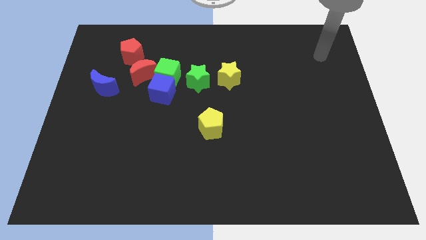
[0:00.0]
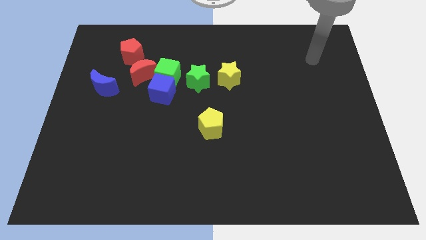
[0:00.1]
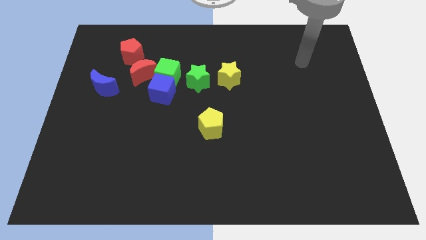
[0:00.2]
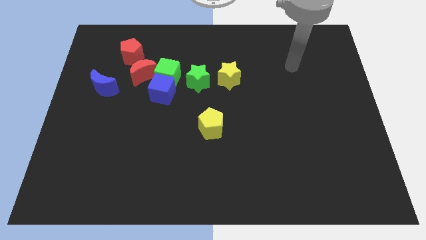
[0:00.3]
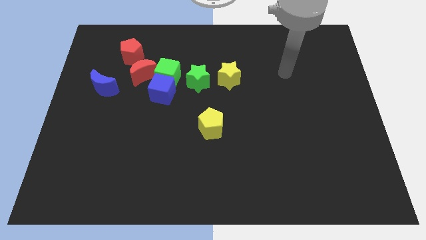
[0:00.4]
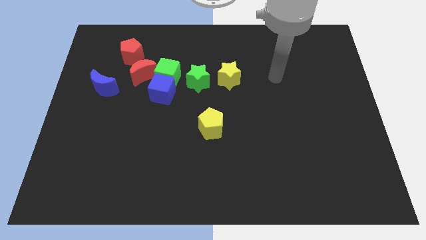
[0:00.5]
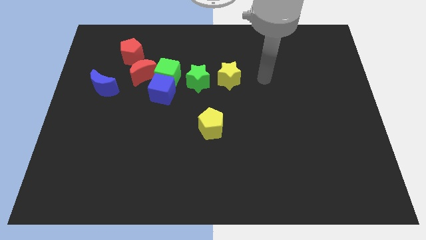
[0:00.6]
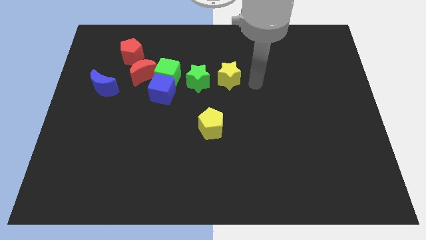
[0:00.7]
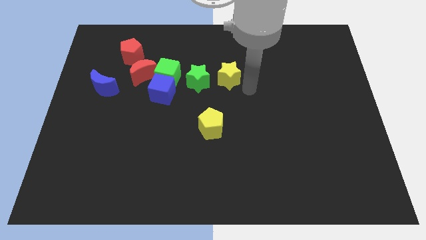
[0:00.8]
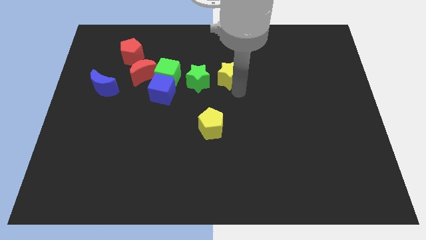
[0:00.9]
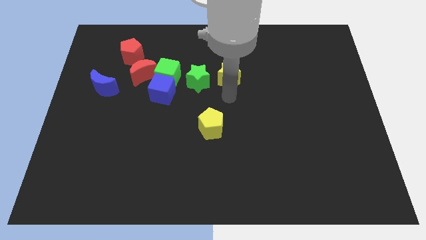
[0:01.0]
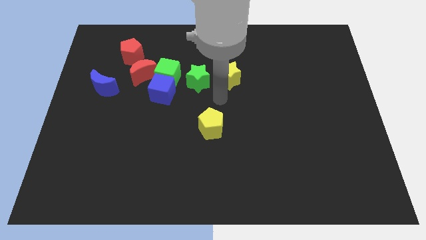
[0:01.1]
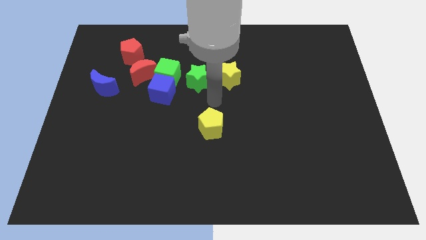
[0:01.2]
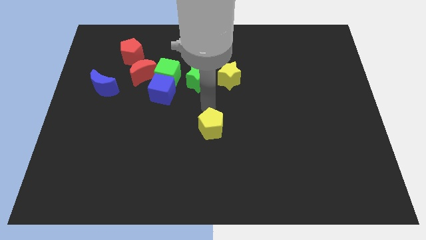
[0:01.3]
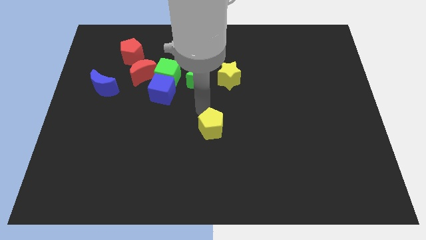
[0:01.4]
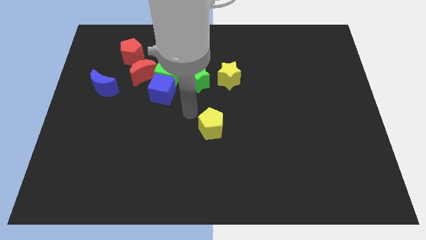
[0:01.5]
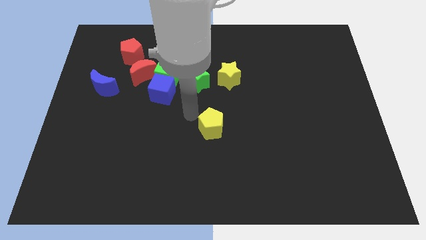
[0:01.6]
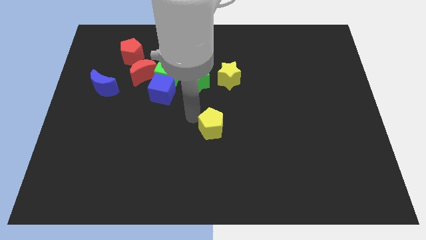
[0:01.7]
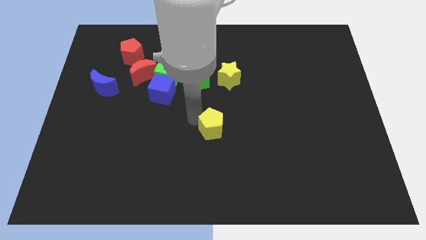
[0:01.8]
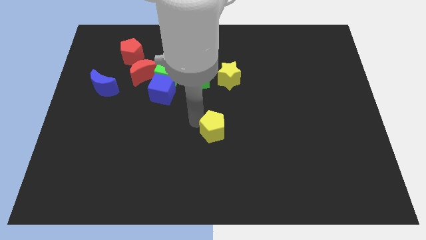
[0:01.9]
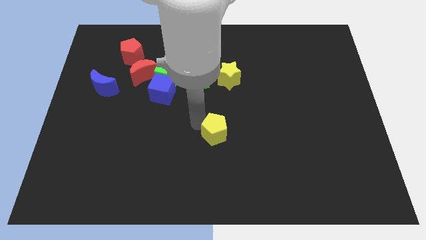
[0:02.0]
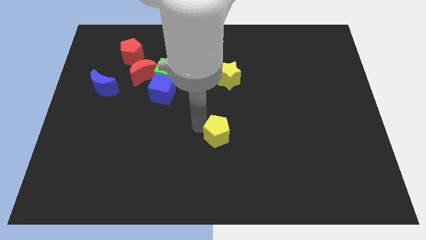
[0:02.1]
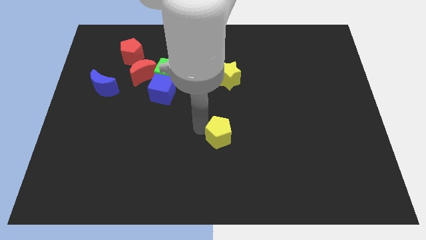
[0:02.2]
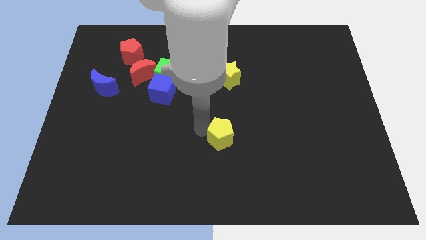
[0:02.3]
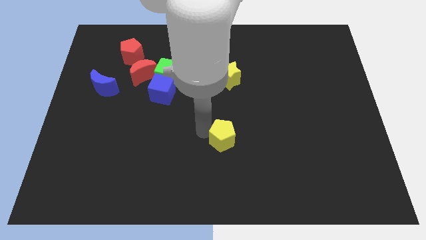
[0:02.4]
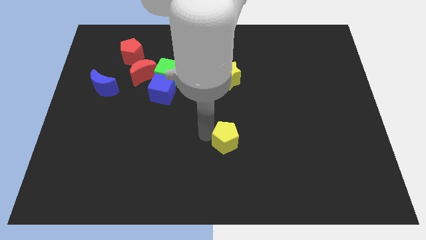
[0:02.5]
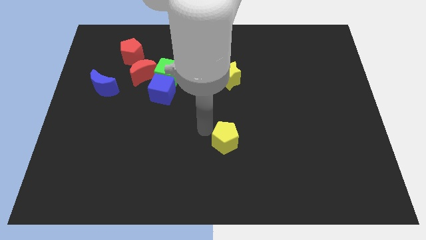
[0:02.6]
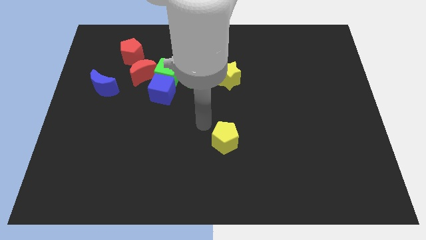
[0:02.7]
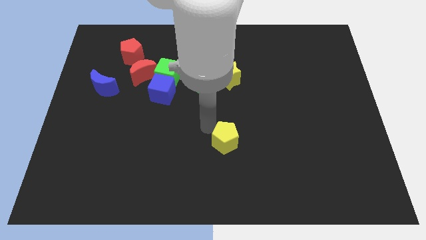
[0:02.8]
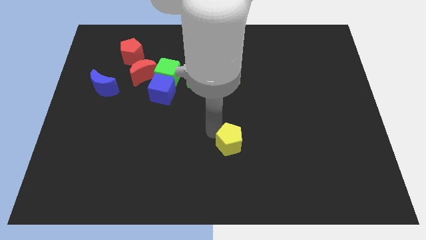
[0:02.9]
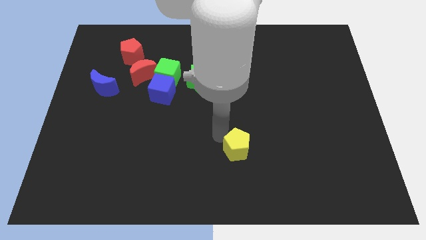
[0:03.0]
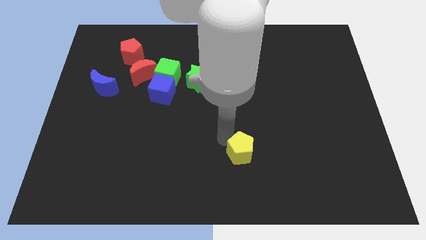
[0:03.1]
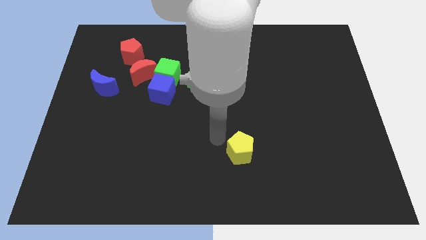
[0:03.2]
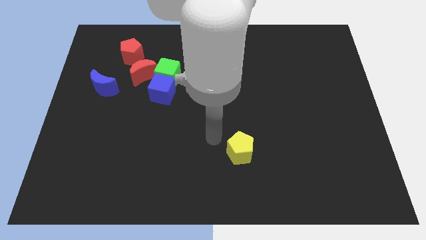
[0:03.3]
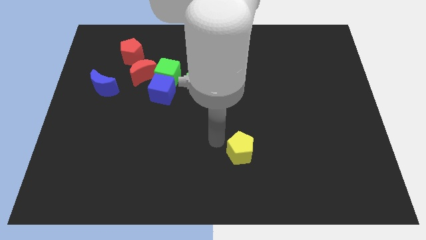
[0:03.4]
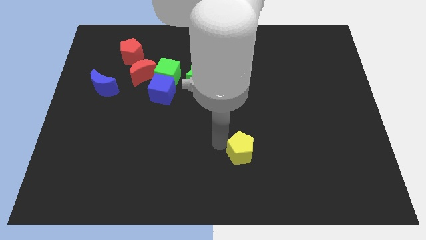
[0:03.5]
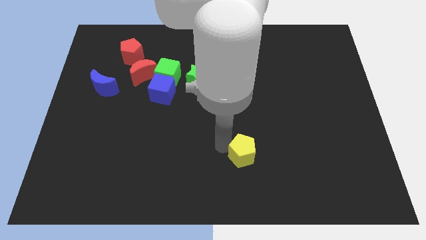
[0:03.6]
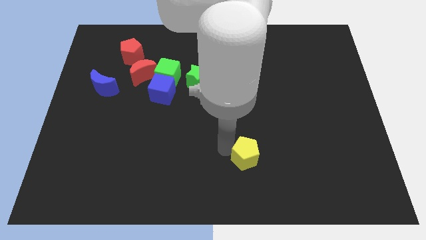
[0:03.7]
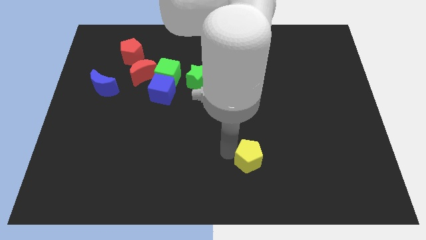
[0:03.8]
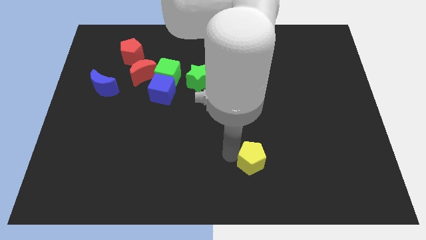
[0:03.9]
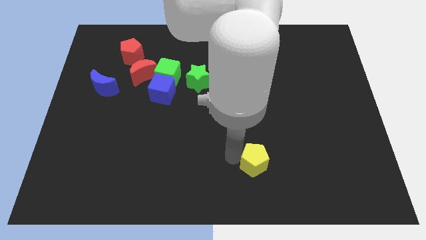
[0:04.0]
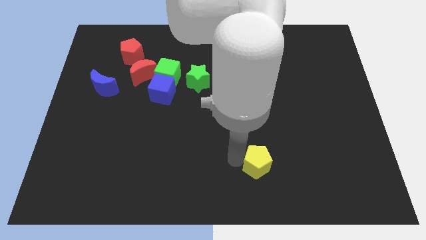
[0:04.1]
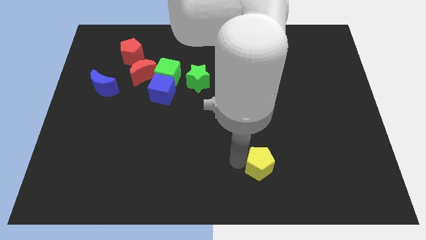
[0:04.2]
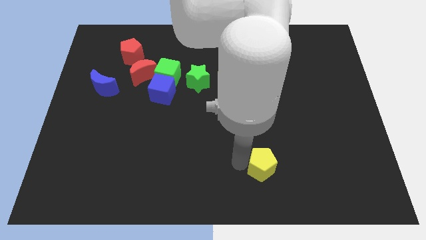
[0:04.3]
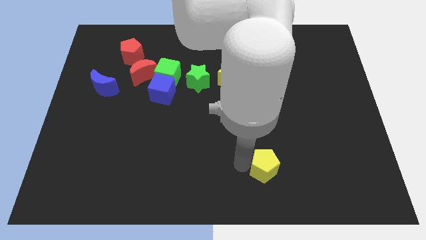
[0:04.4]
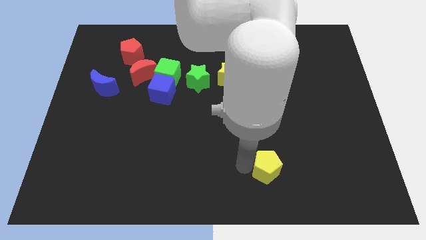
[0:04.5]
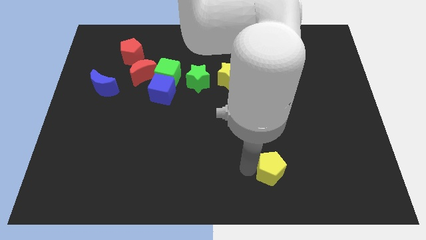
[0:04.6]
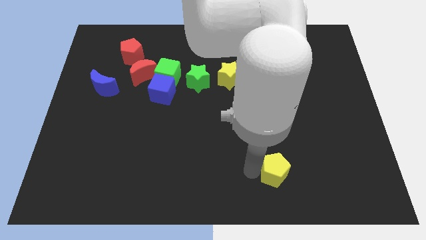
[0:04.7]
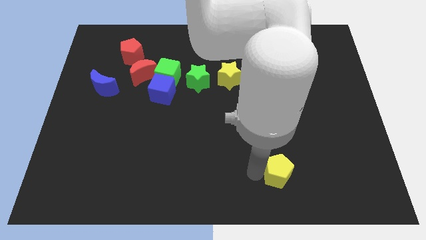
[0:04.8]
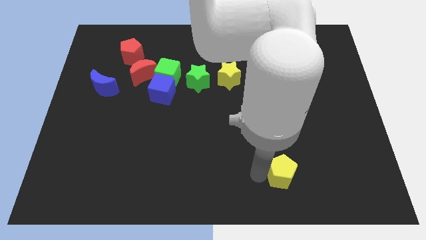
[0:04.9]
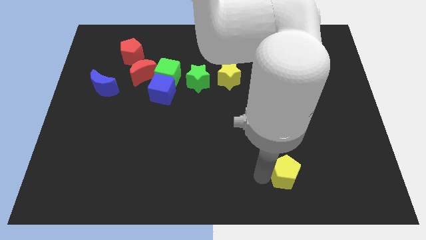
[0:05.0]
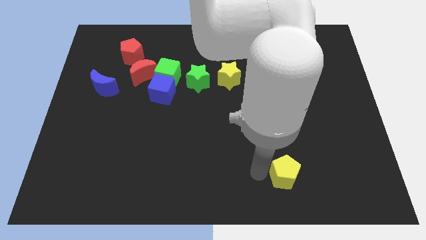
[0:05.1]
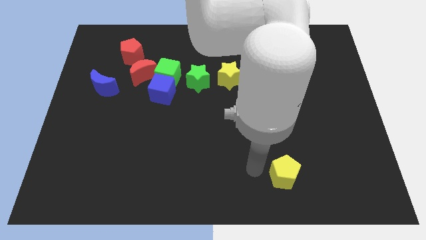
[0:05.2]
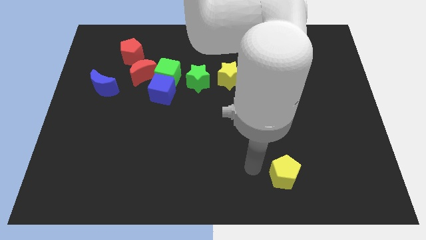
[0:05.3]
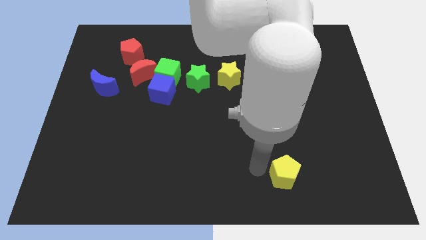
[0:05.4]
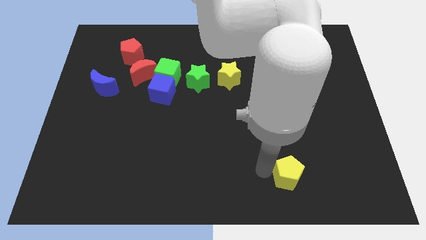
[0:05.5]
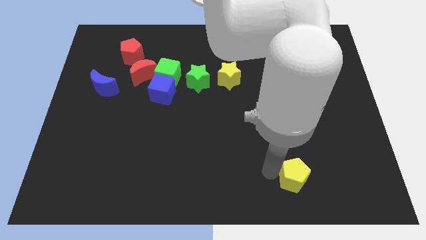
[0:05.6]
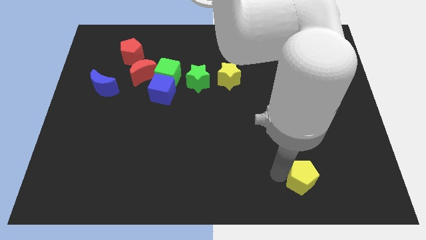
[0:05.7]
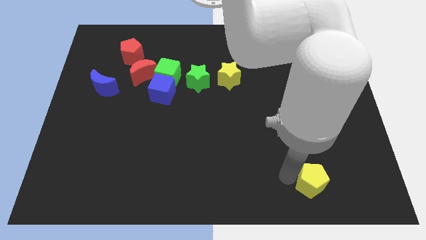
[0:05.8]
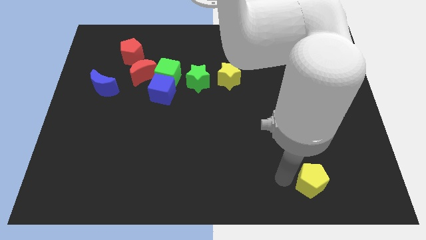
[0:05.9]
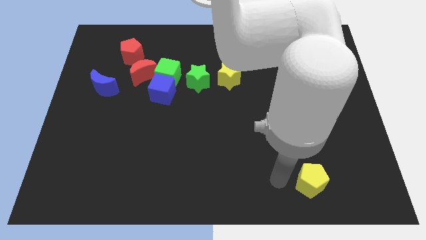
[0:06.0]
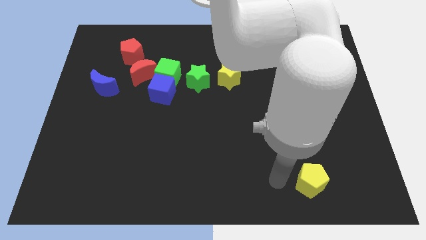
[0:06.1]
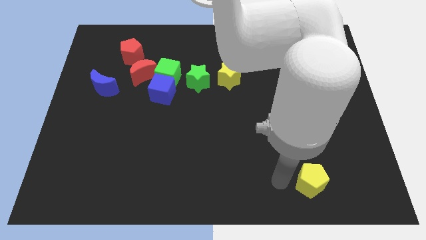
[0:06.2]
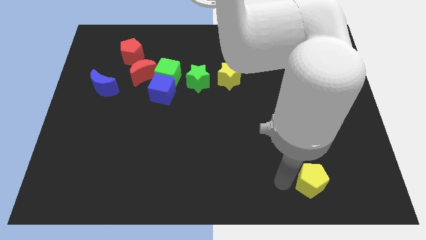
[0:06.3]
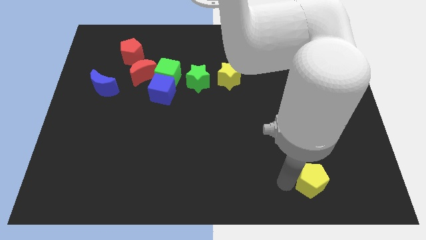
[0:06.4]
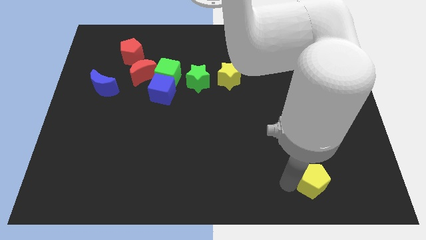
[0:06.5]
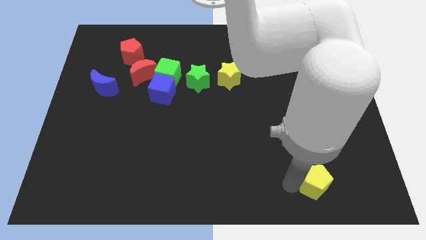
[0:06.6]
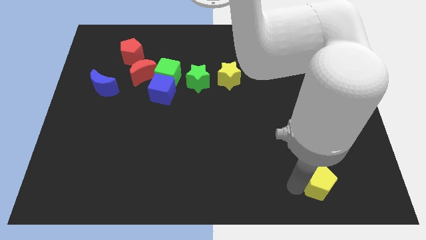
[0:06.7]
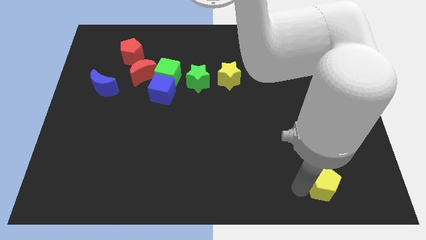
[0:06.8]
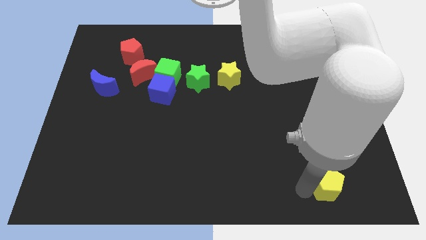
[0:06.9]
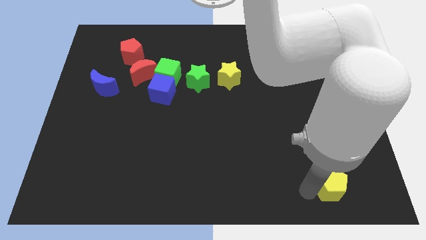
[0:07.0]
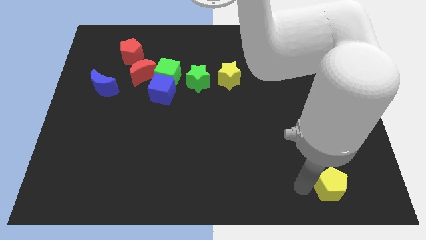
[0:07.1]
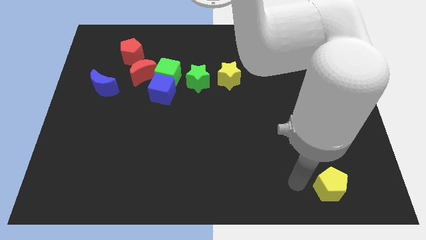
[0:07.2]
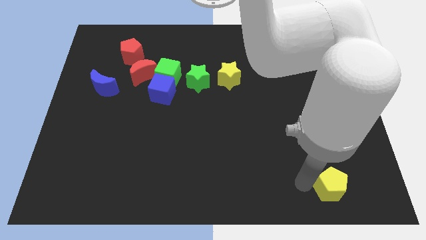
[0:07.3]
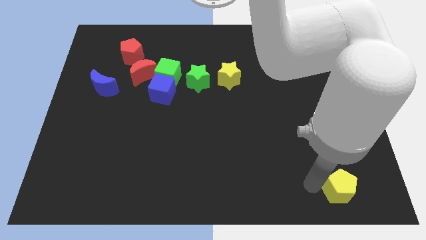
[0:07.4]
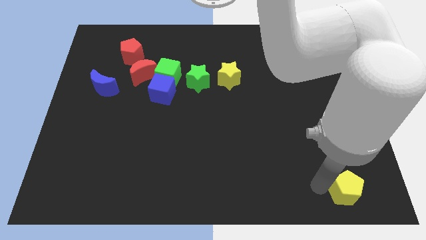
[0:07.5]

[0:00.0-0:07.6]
slide the yellow pentagon to the lower right corner
